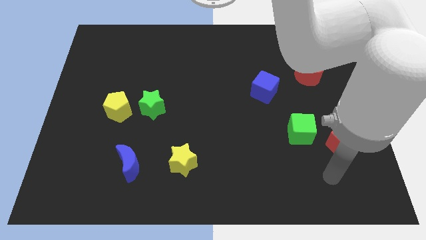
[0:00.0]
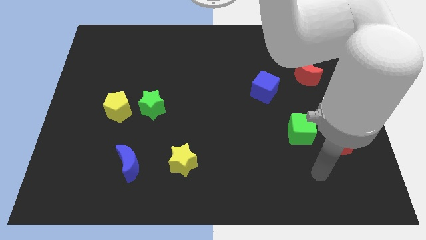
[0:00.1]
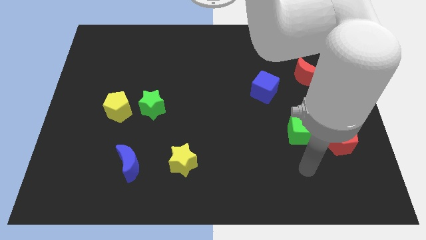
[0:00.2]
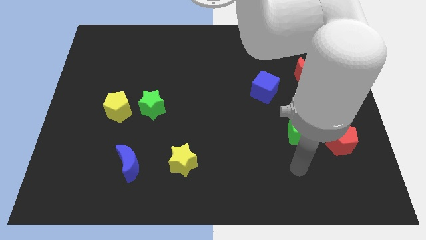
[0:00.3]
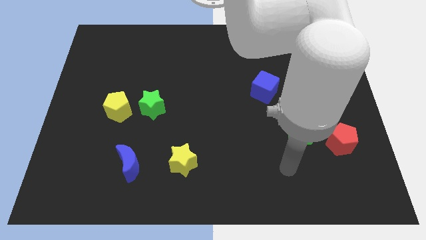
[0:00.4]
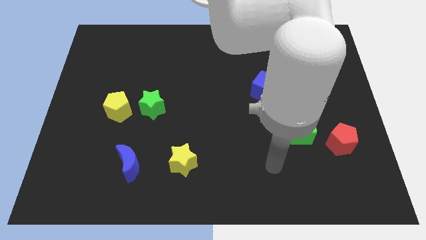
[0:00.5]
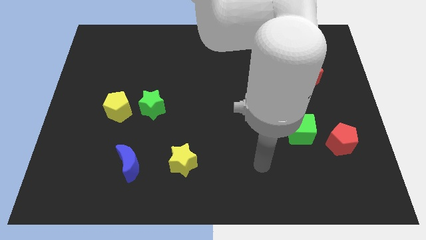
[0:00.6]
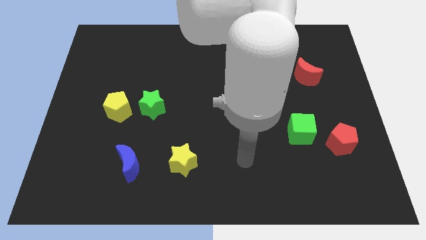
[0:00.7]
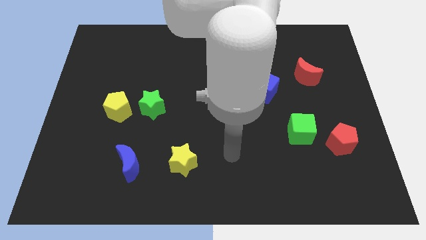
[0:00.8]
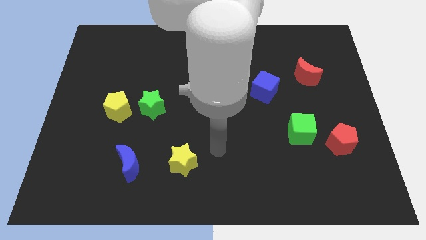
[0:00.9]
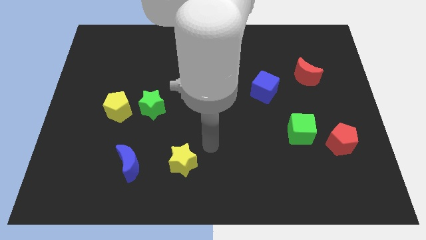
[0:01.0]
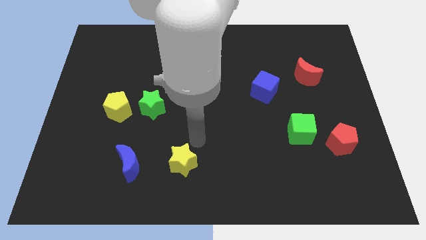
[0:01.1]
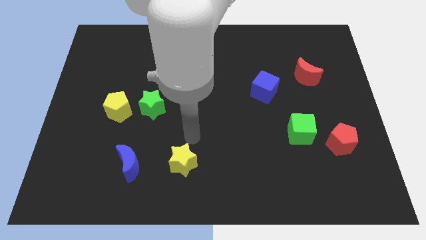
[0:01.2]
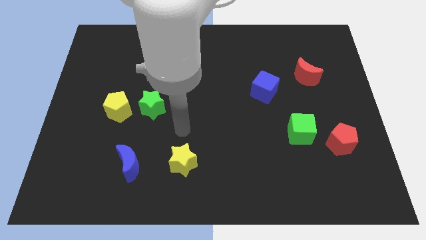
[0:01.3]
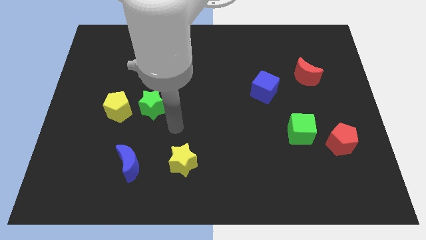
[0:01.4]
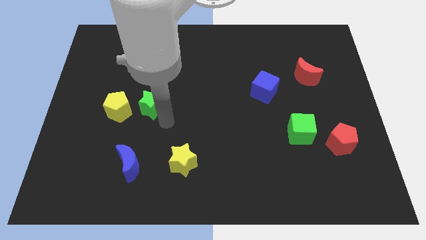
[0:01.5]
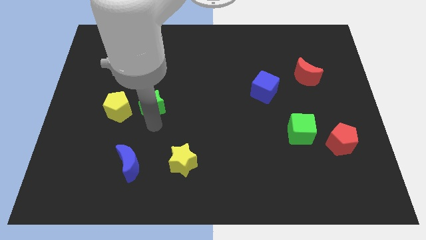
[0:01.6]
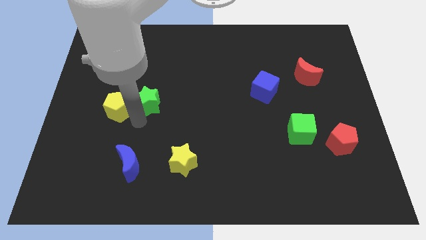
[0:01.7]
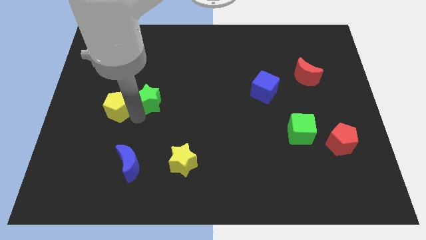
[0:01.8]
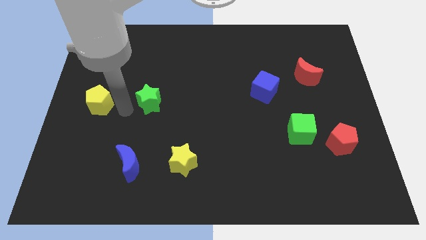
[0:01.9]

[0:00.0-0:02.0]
move the green star away from the yellow pentagon

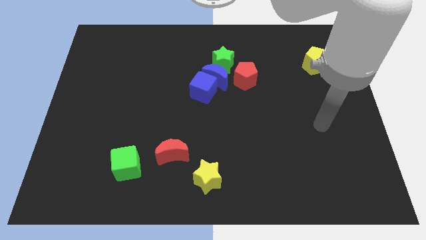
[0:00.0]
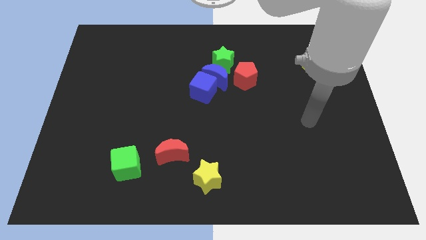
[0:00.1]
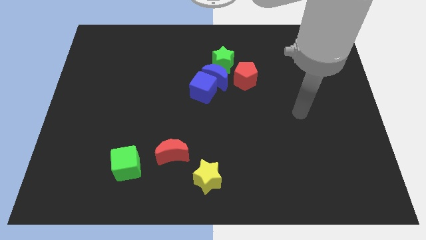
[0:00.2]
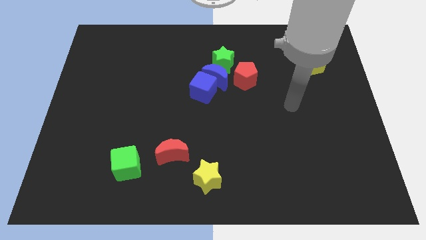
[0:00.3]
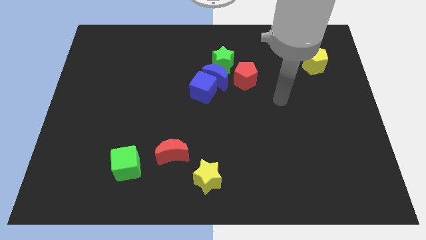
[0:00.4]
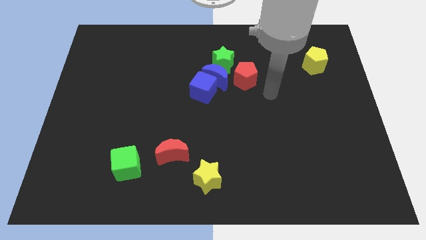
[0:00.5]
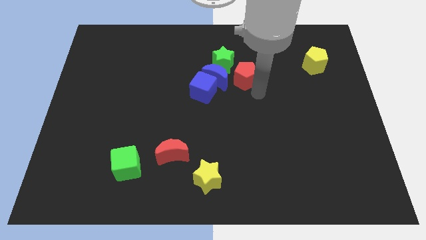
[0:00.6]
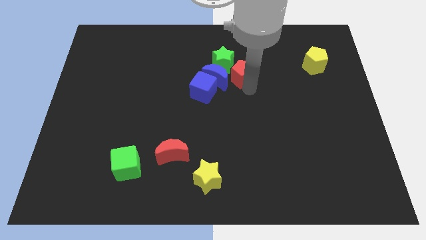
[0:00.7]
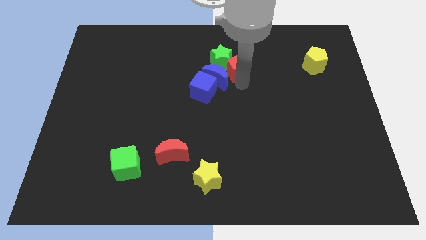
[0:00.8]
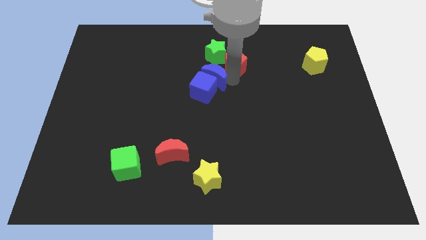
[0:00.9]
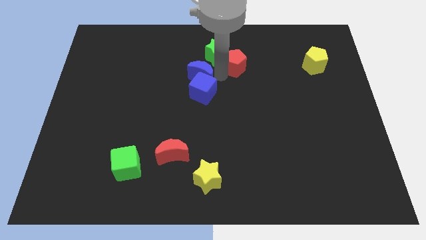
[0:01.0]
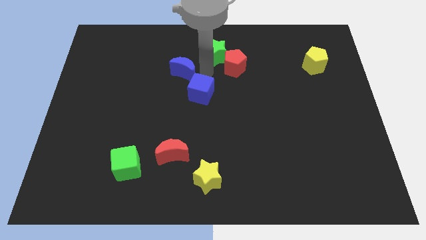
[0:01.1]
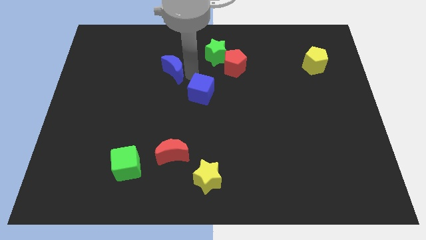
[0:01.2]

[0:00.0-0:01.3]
separate the blue cube from the blue moon

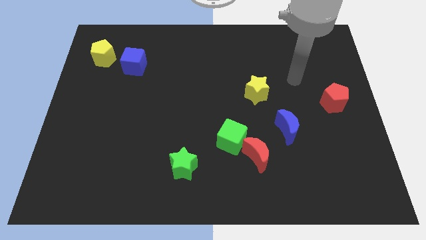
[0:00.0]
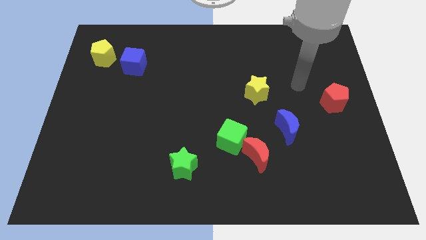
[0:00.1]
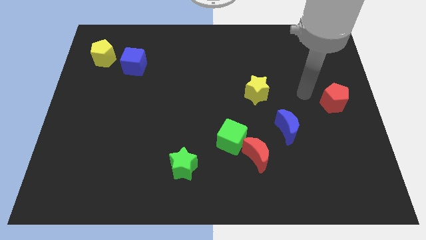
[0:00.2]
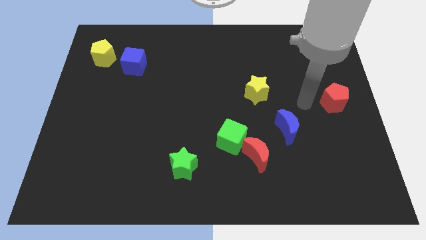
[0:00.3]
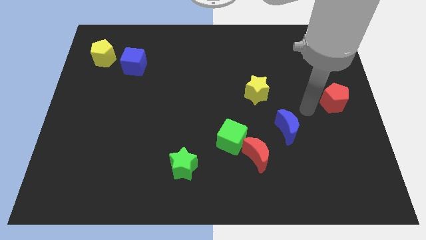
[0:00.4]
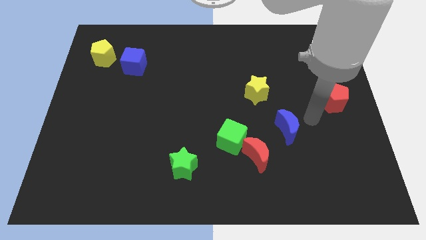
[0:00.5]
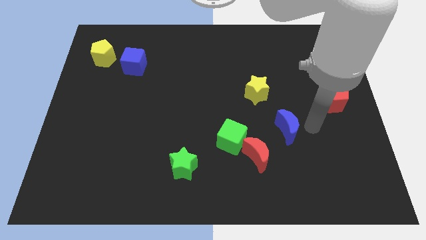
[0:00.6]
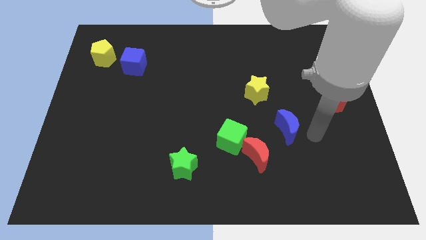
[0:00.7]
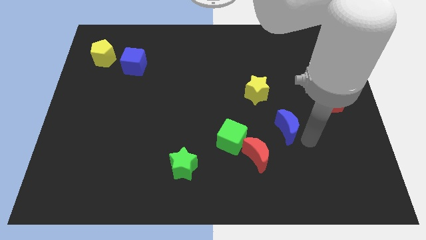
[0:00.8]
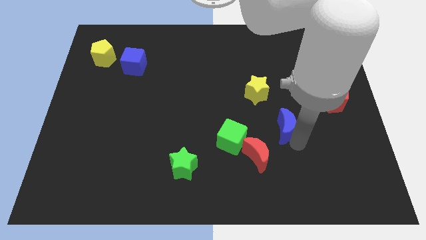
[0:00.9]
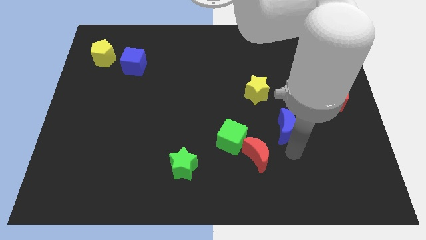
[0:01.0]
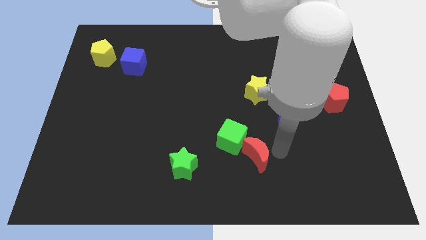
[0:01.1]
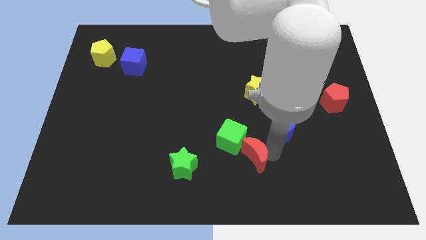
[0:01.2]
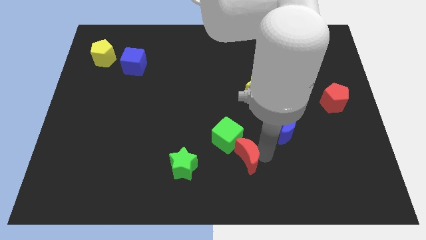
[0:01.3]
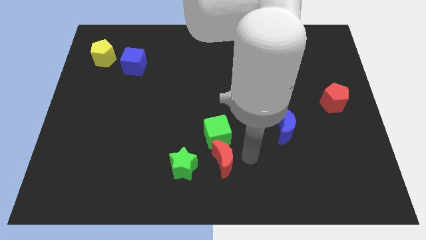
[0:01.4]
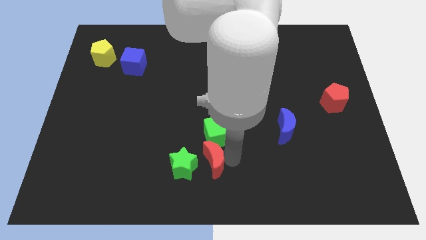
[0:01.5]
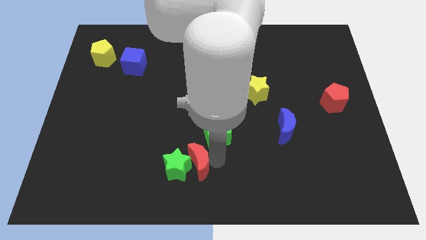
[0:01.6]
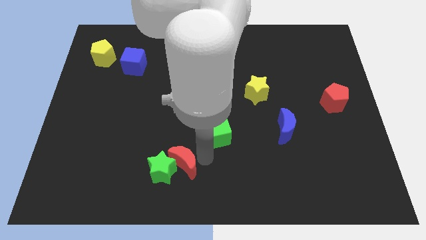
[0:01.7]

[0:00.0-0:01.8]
separate the green cube from the red moon

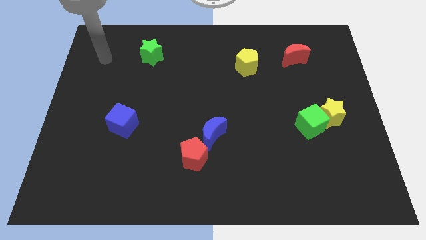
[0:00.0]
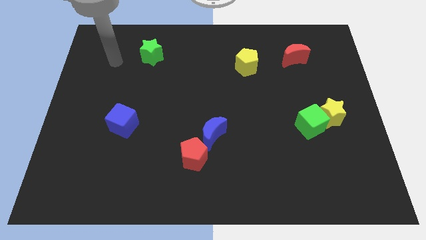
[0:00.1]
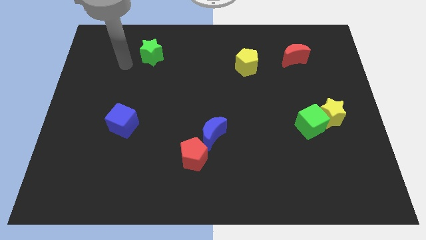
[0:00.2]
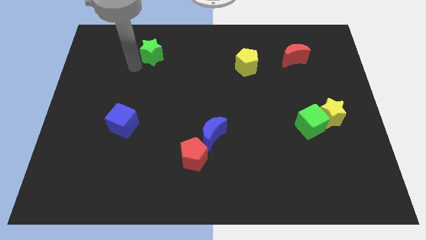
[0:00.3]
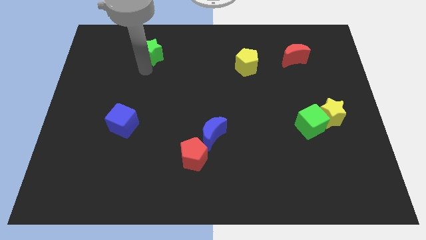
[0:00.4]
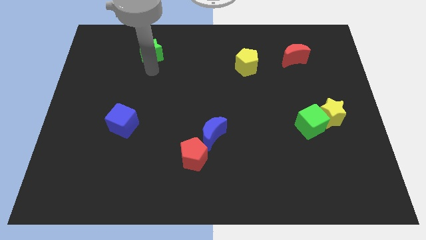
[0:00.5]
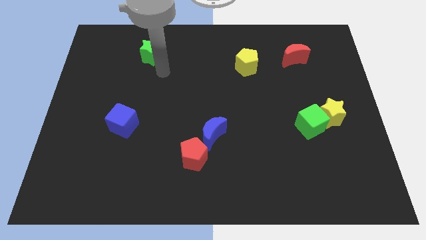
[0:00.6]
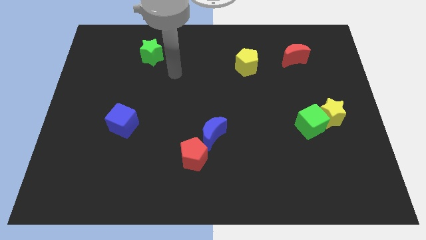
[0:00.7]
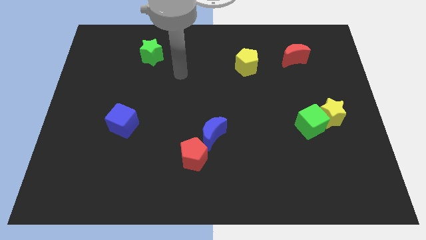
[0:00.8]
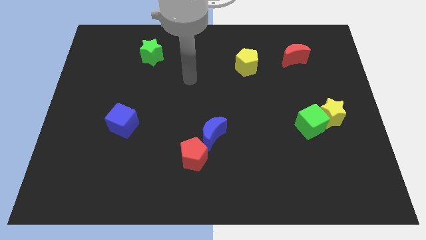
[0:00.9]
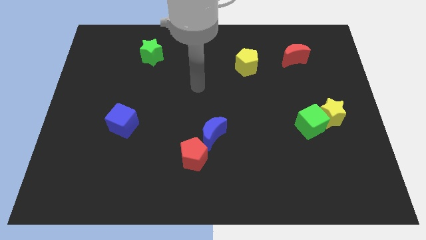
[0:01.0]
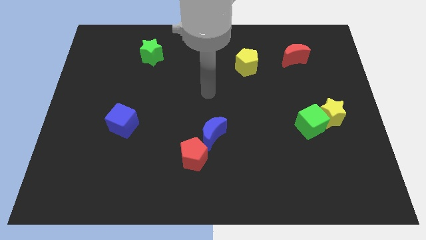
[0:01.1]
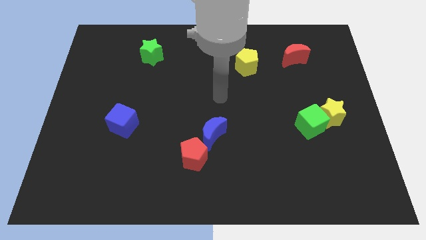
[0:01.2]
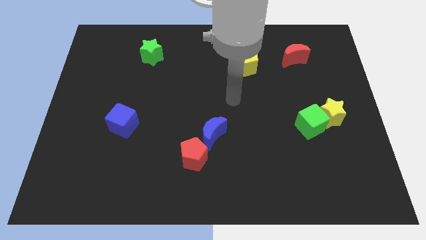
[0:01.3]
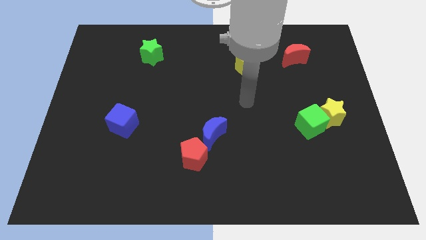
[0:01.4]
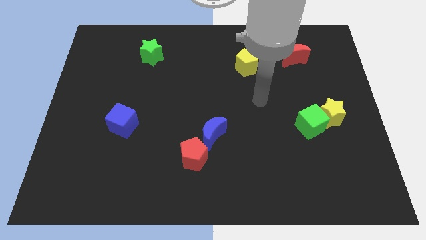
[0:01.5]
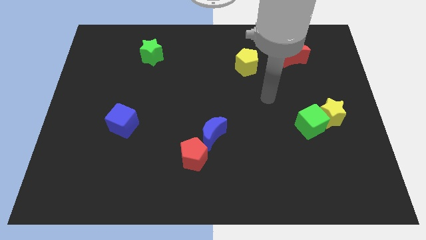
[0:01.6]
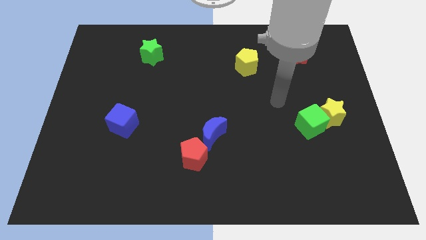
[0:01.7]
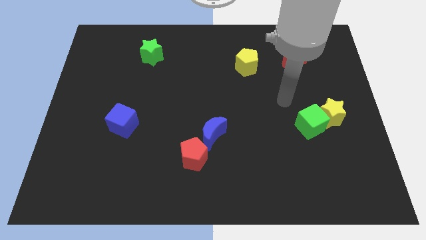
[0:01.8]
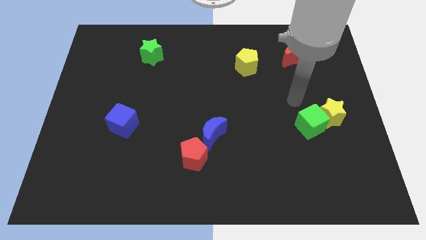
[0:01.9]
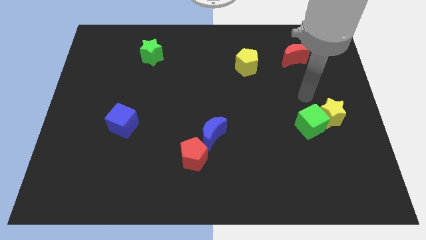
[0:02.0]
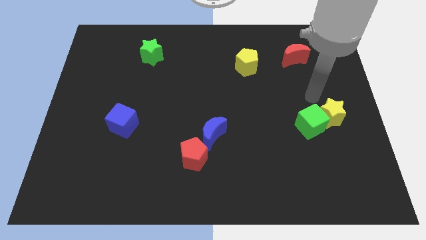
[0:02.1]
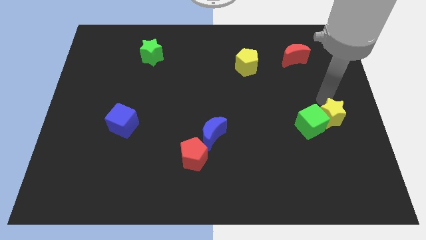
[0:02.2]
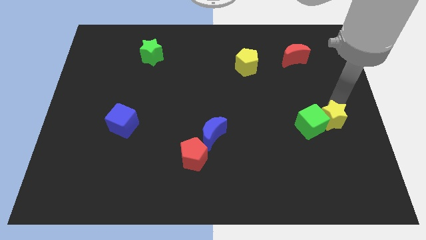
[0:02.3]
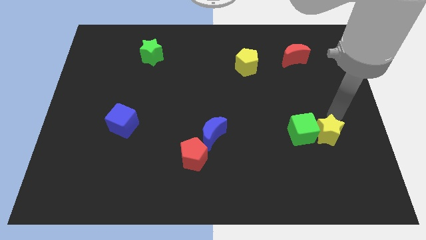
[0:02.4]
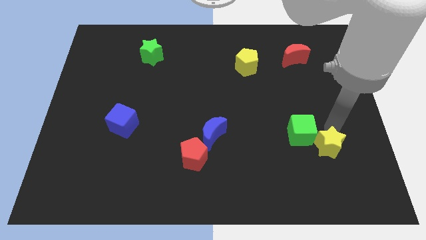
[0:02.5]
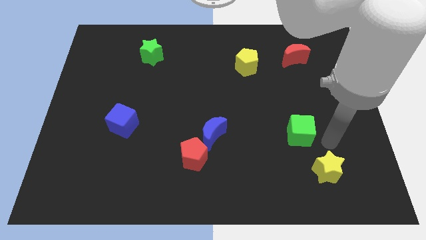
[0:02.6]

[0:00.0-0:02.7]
pull the green cube apart from the yellow star

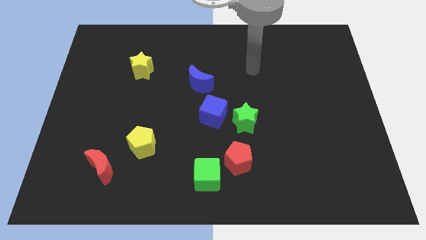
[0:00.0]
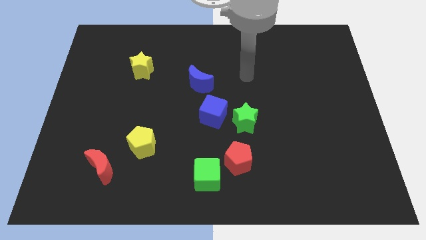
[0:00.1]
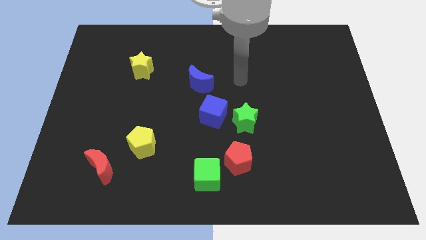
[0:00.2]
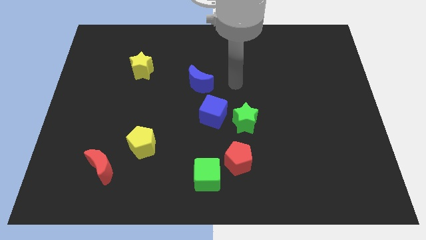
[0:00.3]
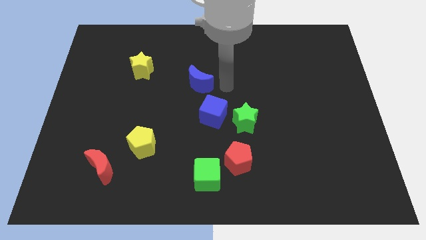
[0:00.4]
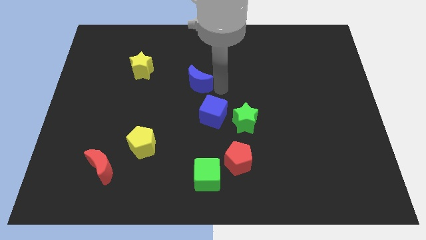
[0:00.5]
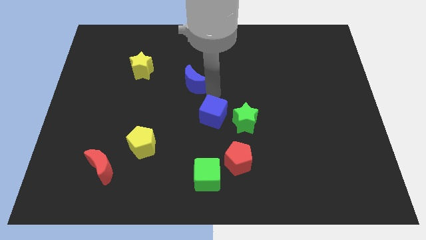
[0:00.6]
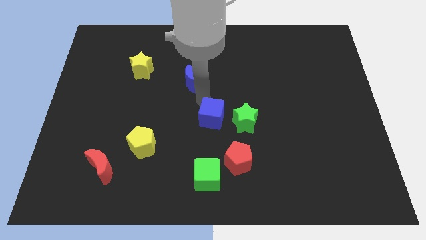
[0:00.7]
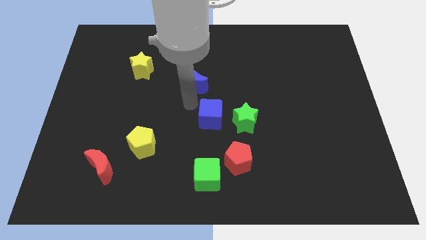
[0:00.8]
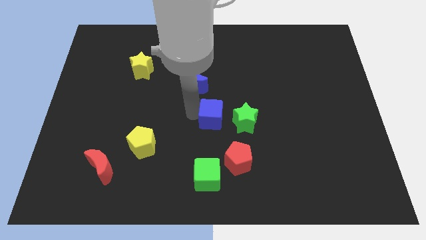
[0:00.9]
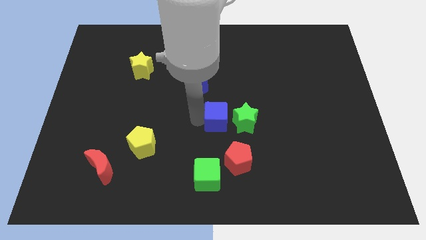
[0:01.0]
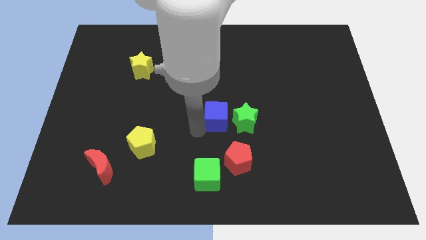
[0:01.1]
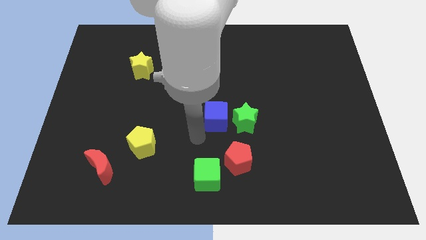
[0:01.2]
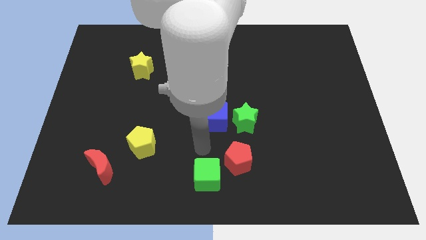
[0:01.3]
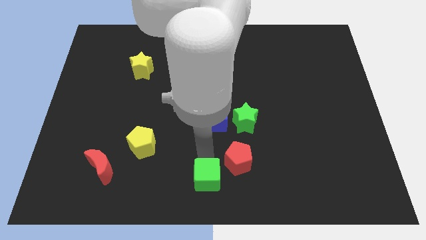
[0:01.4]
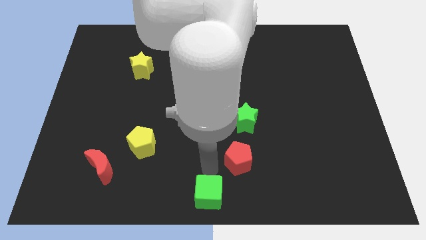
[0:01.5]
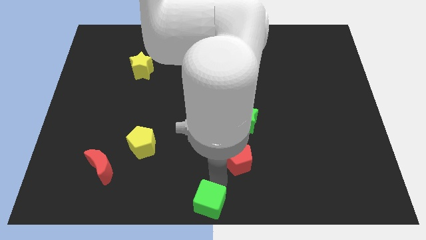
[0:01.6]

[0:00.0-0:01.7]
move the red pentagon away from the green cube

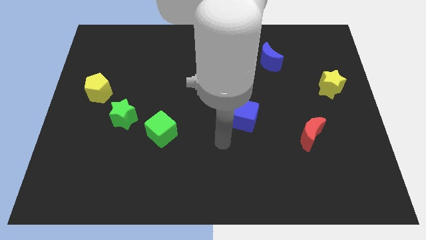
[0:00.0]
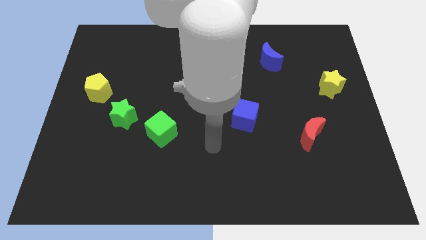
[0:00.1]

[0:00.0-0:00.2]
separate the green cube from the green star
